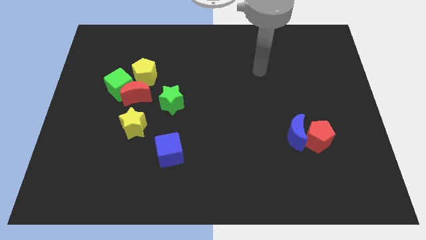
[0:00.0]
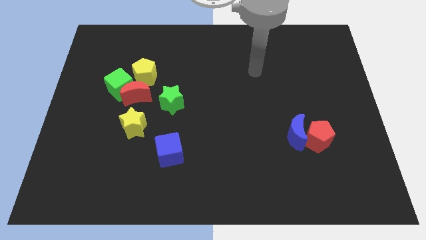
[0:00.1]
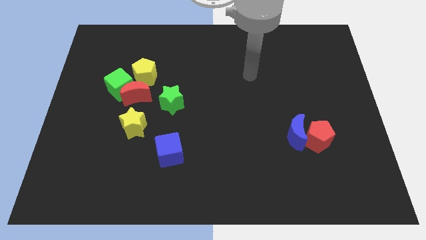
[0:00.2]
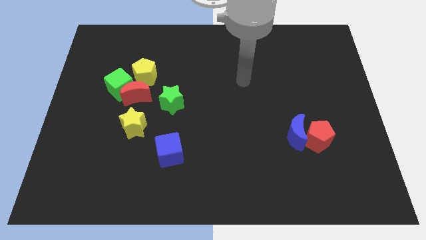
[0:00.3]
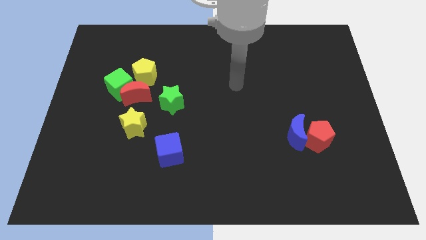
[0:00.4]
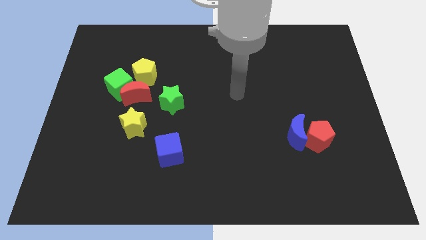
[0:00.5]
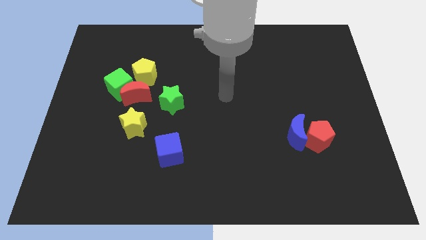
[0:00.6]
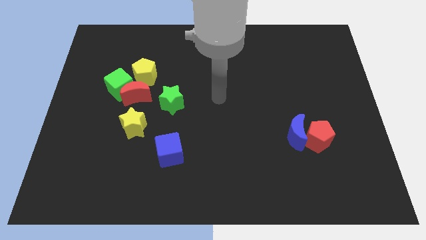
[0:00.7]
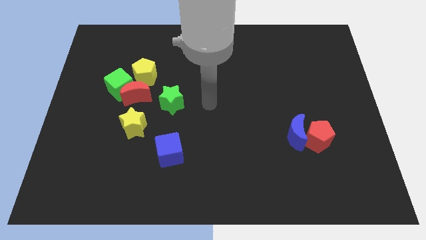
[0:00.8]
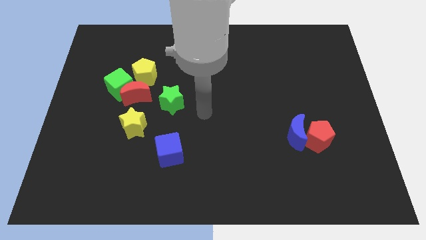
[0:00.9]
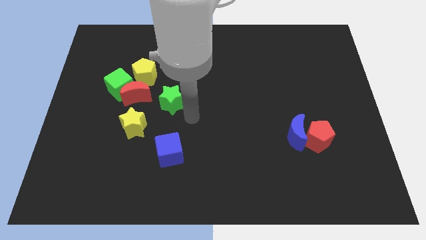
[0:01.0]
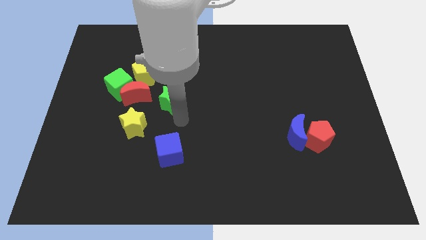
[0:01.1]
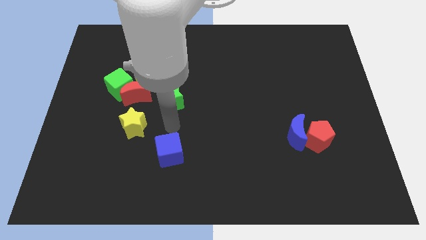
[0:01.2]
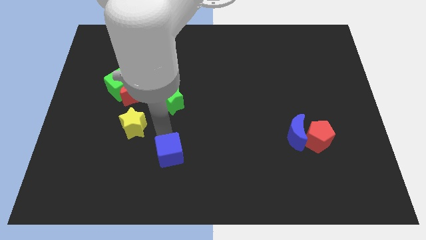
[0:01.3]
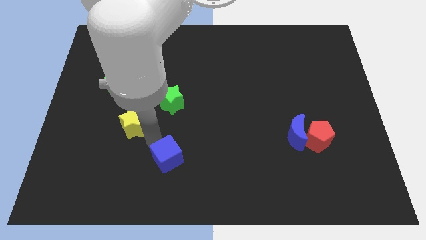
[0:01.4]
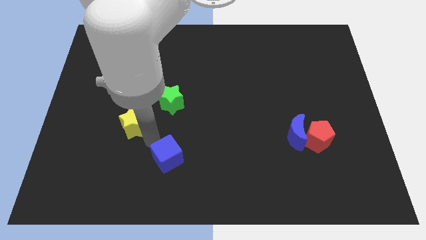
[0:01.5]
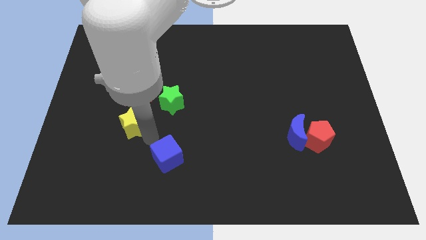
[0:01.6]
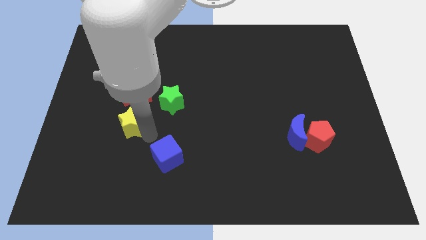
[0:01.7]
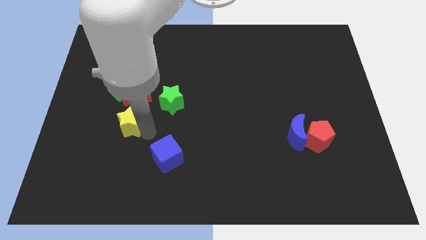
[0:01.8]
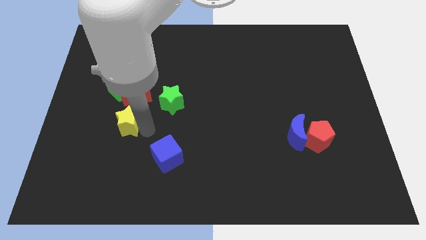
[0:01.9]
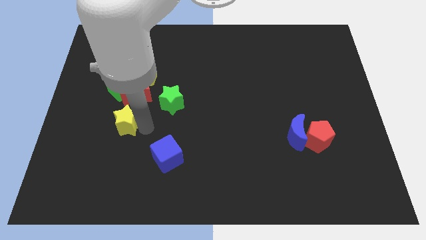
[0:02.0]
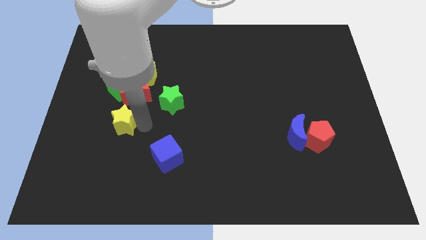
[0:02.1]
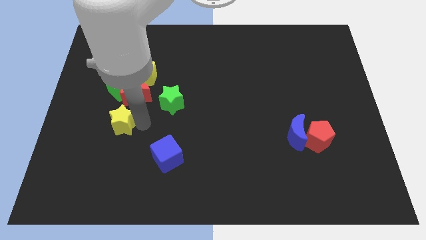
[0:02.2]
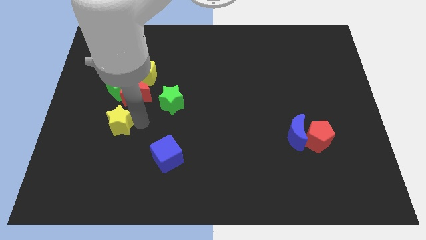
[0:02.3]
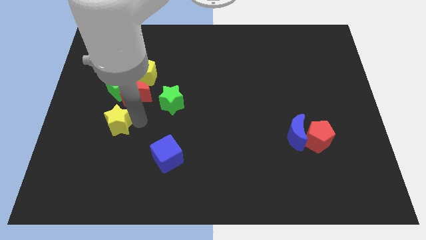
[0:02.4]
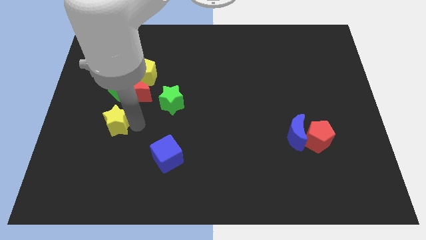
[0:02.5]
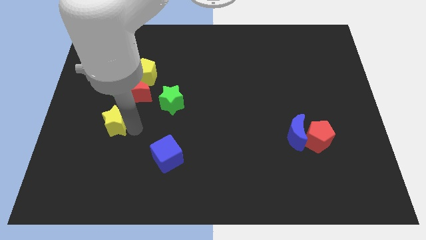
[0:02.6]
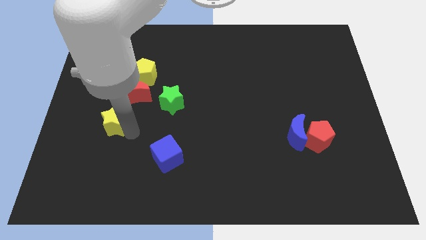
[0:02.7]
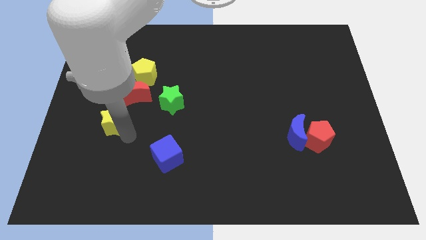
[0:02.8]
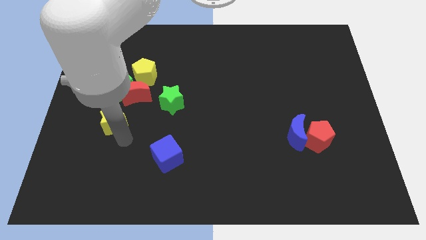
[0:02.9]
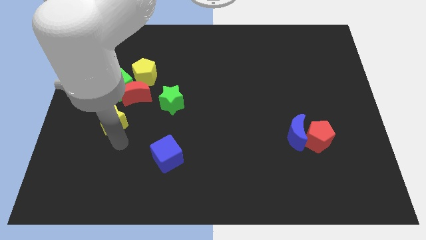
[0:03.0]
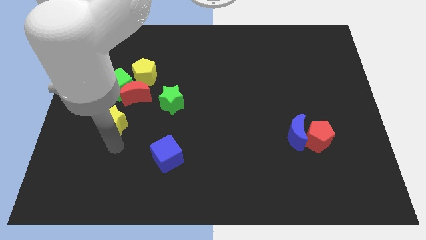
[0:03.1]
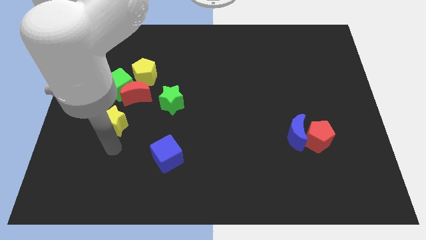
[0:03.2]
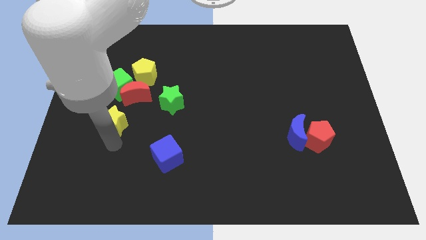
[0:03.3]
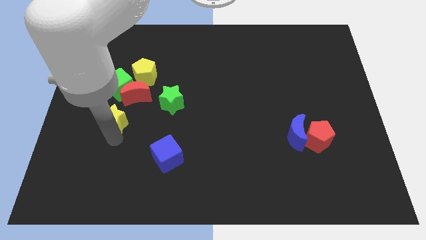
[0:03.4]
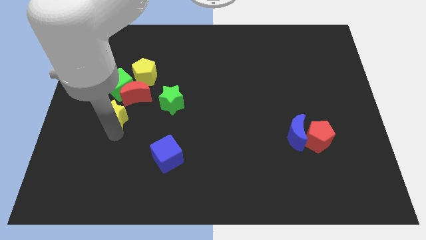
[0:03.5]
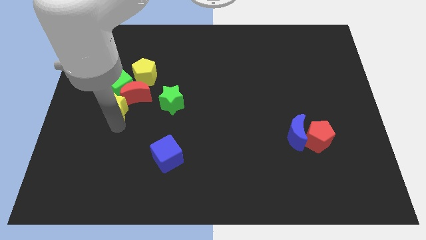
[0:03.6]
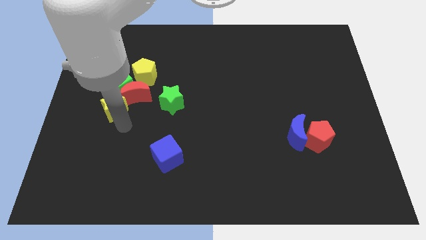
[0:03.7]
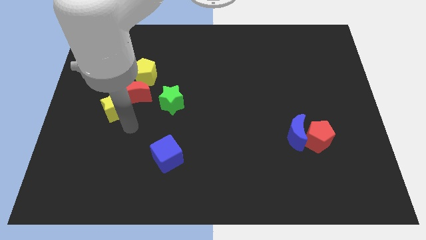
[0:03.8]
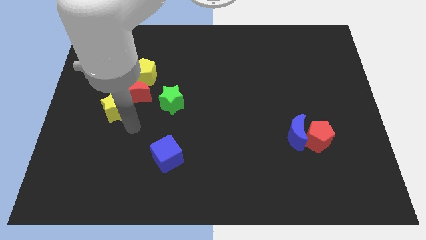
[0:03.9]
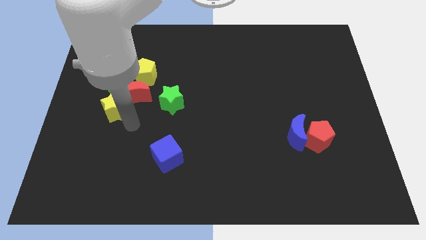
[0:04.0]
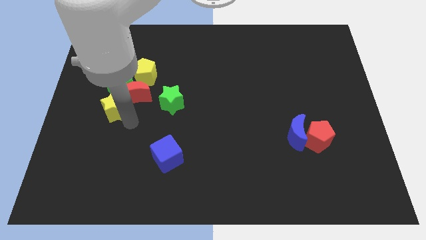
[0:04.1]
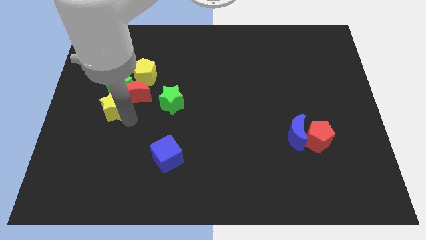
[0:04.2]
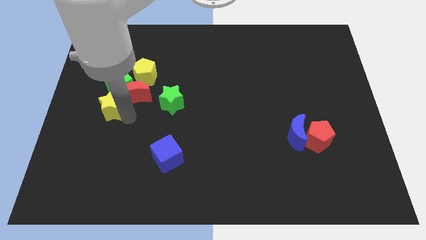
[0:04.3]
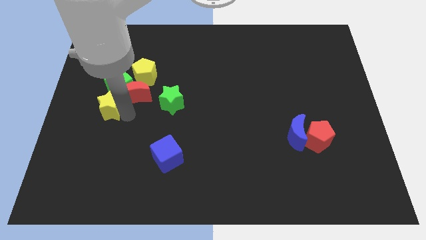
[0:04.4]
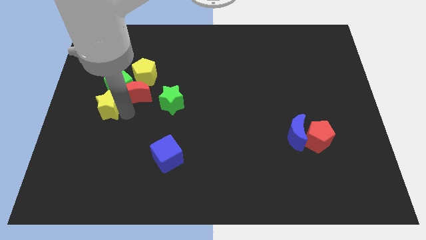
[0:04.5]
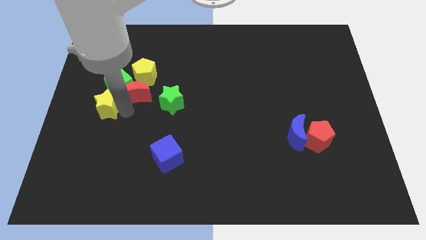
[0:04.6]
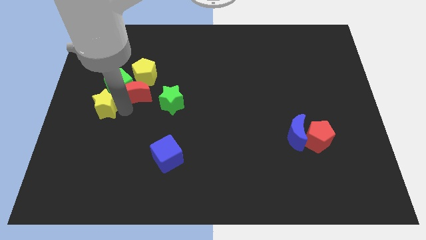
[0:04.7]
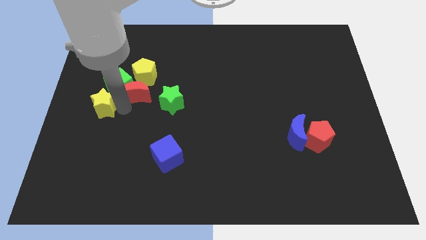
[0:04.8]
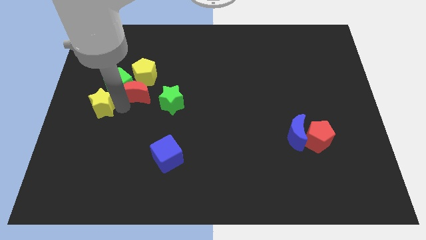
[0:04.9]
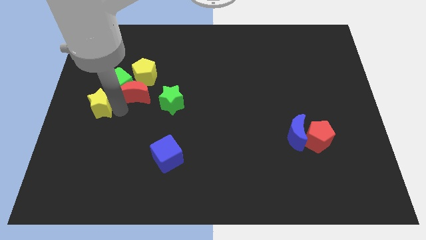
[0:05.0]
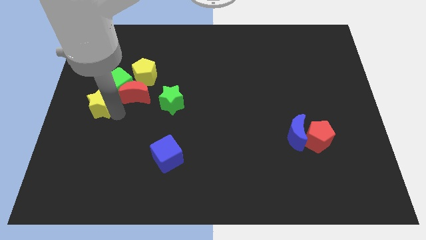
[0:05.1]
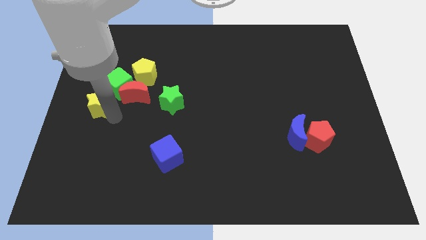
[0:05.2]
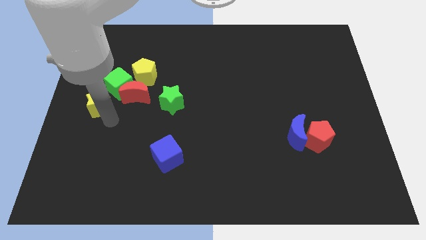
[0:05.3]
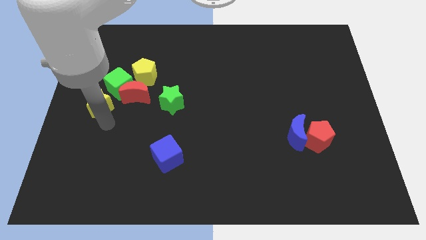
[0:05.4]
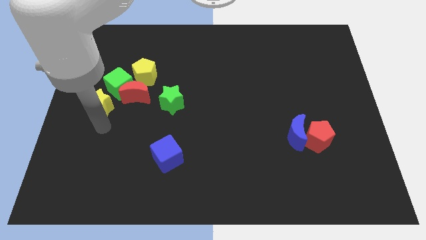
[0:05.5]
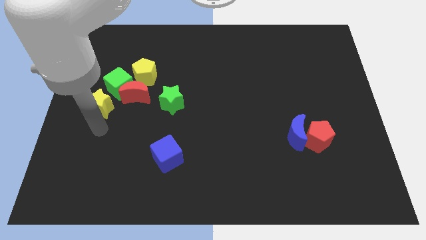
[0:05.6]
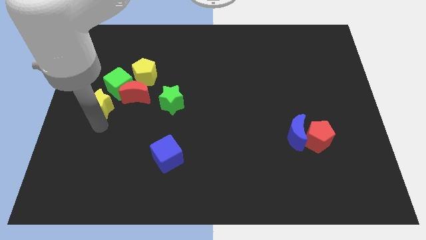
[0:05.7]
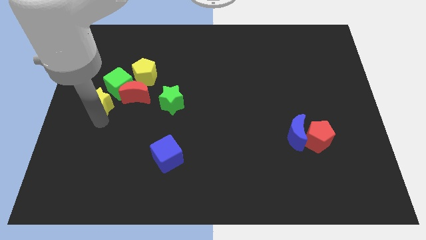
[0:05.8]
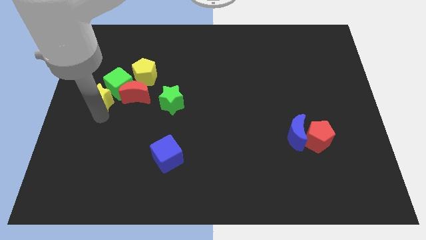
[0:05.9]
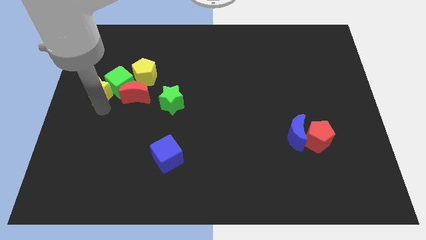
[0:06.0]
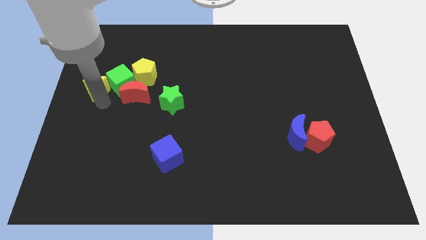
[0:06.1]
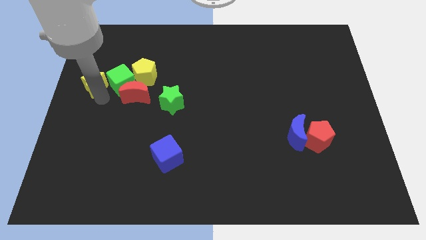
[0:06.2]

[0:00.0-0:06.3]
slide the yellow star to the top left side of the red moon

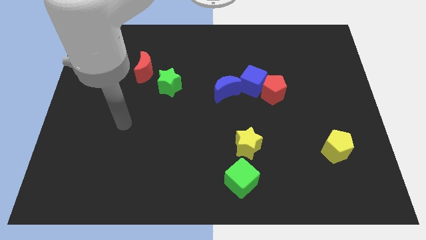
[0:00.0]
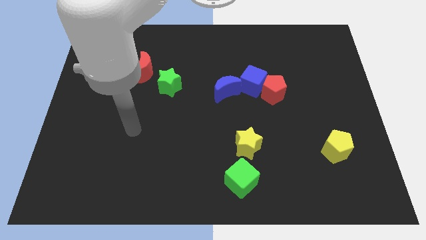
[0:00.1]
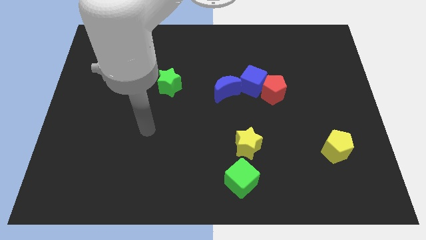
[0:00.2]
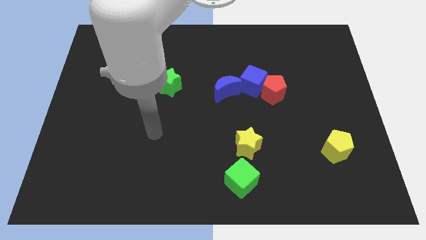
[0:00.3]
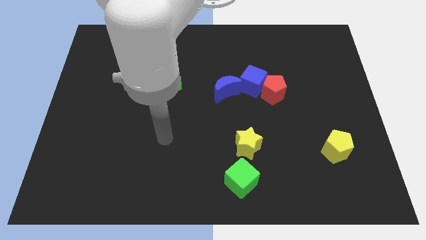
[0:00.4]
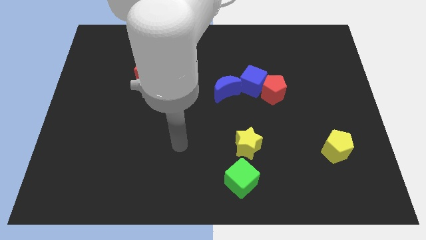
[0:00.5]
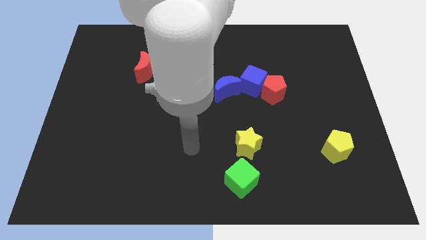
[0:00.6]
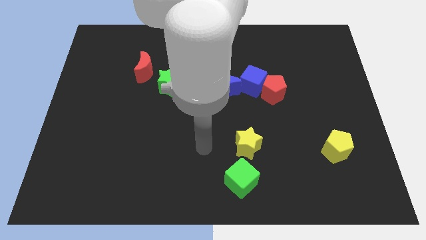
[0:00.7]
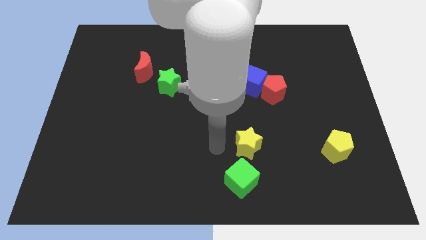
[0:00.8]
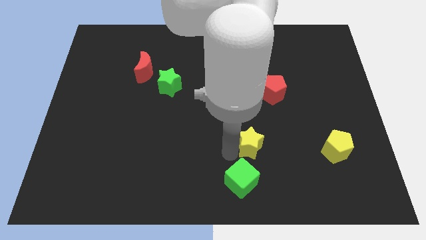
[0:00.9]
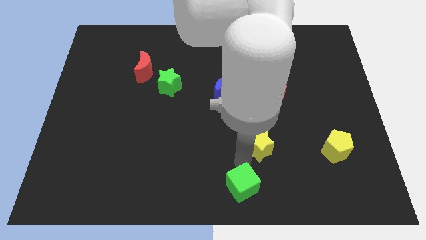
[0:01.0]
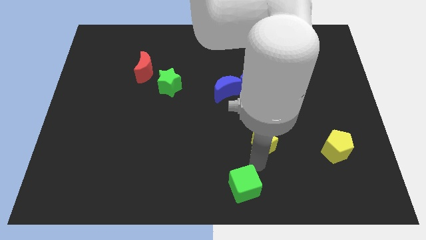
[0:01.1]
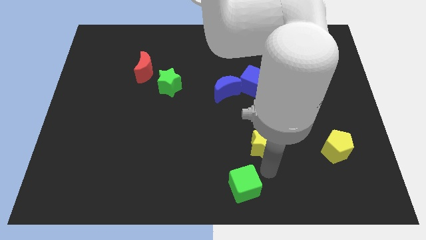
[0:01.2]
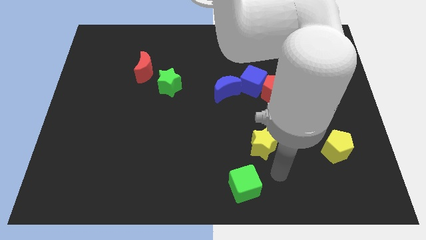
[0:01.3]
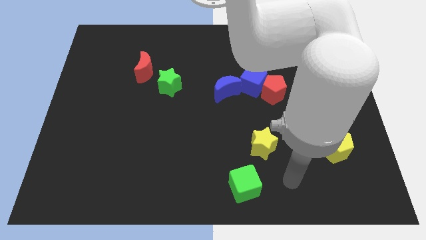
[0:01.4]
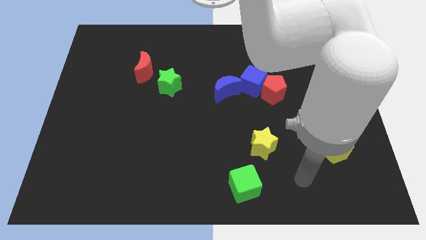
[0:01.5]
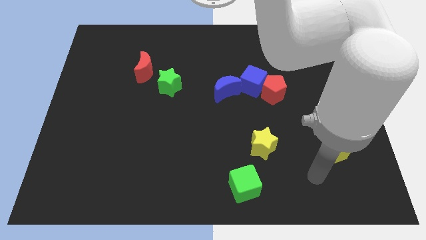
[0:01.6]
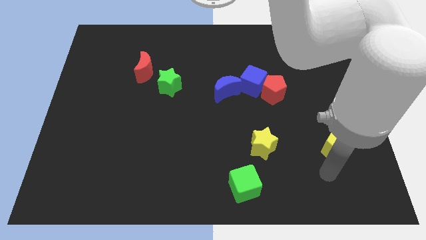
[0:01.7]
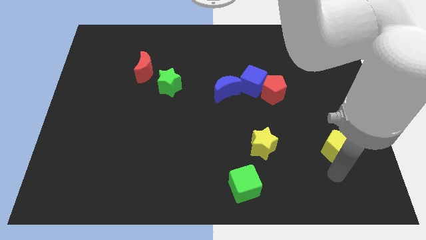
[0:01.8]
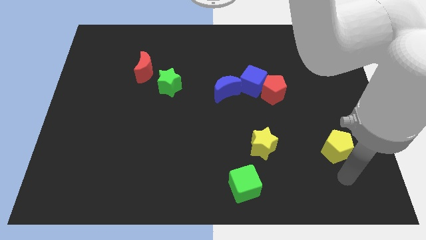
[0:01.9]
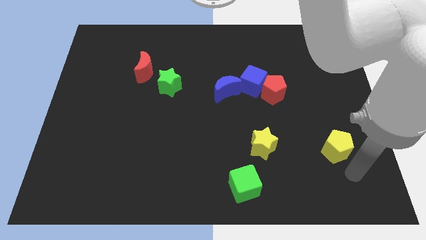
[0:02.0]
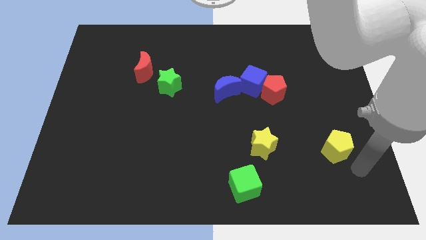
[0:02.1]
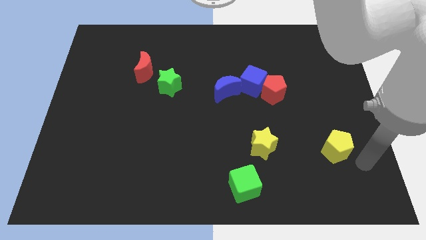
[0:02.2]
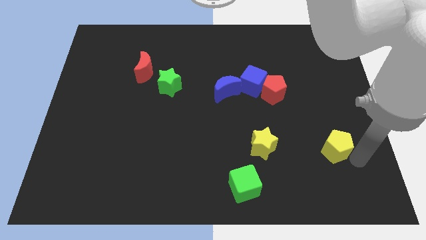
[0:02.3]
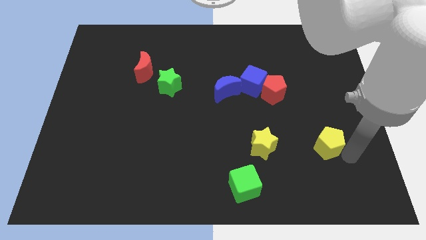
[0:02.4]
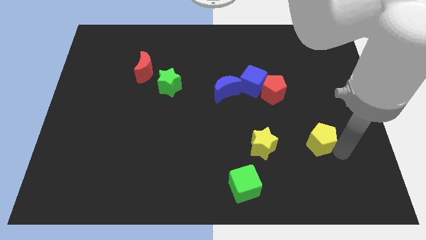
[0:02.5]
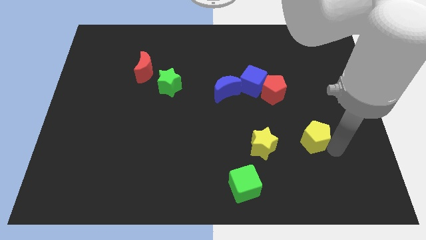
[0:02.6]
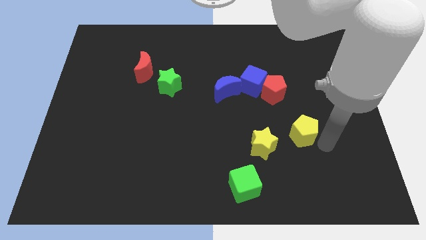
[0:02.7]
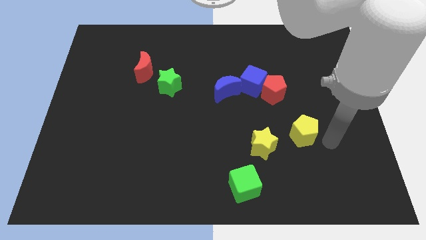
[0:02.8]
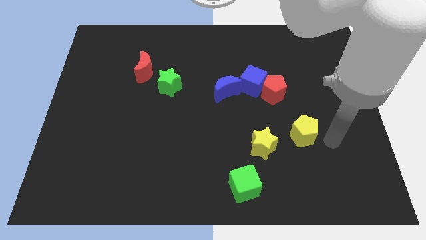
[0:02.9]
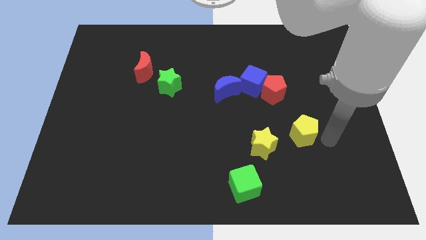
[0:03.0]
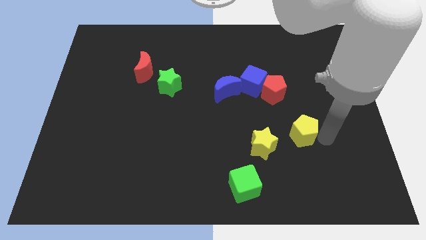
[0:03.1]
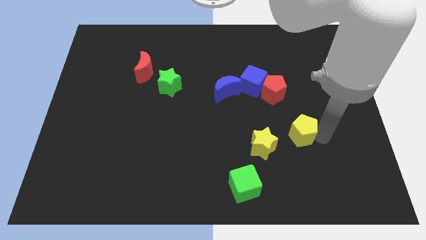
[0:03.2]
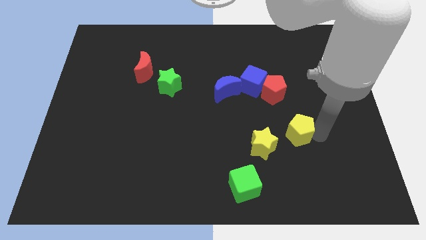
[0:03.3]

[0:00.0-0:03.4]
push the yellow pentagon to the bottom of the red pentagon
